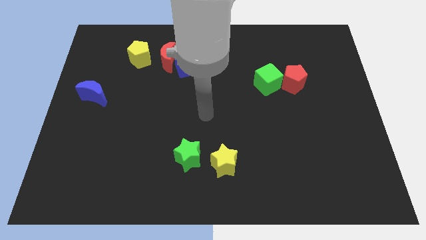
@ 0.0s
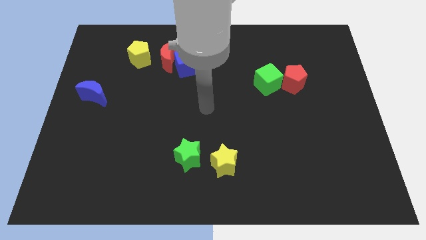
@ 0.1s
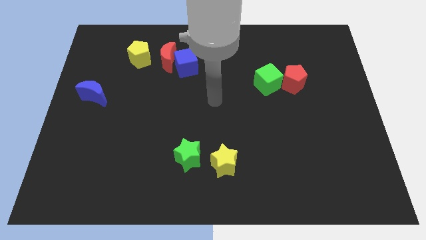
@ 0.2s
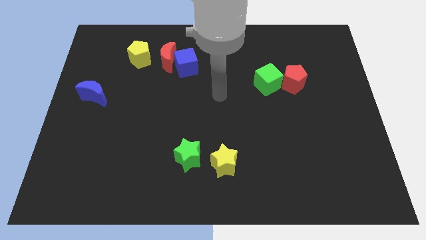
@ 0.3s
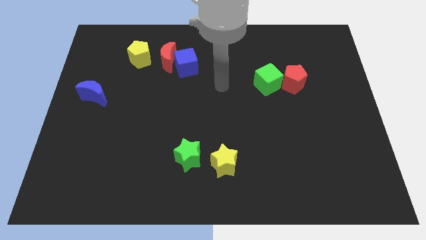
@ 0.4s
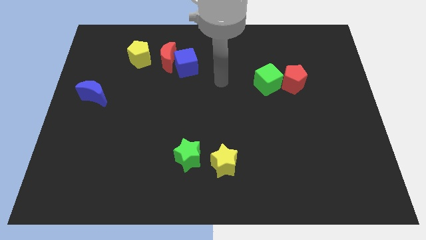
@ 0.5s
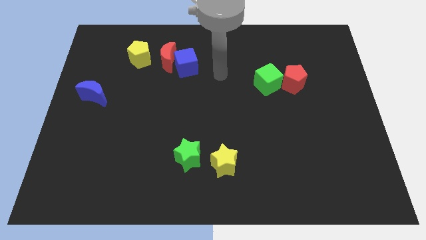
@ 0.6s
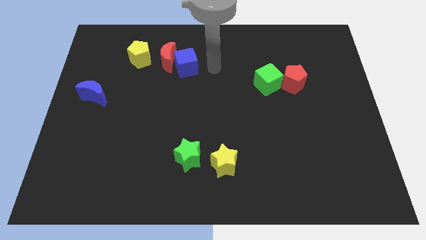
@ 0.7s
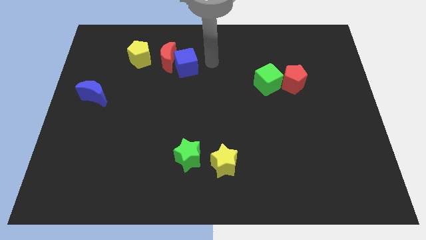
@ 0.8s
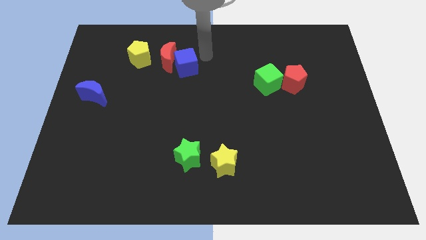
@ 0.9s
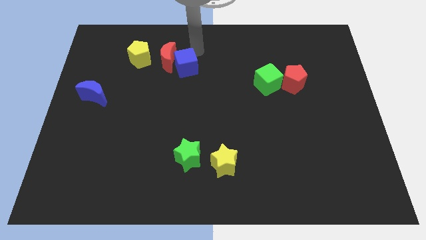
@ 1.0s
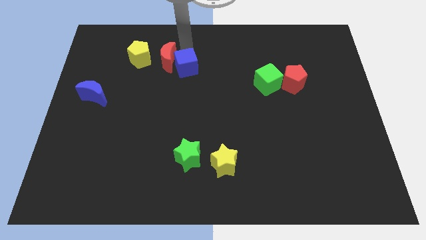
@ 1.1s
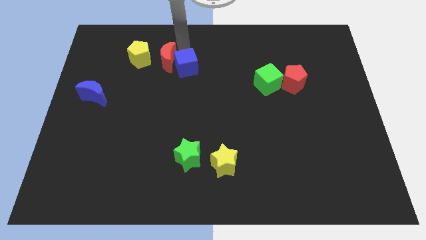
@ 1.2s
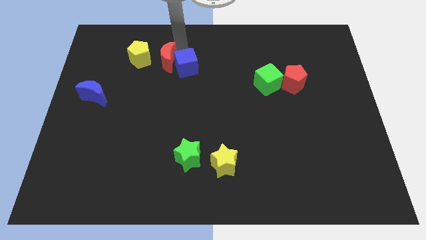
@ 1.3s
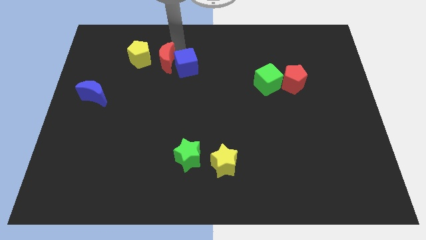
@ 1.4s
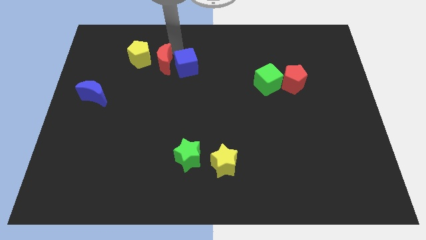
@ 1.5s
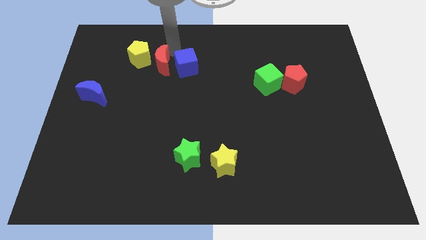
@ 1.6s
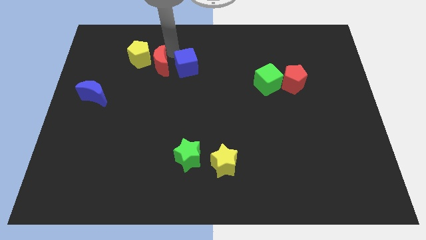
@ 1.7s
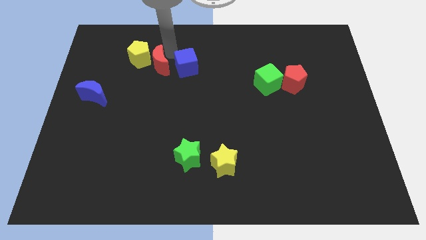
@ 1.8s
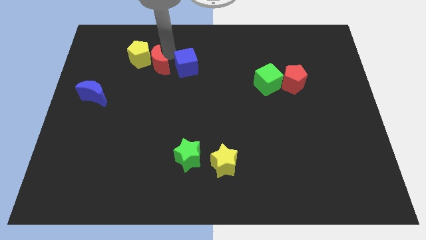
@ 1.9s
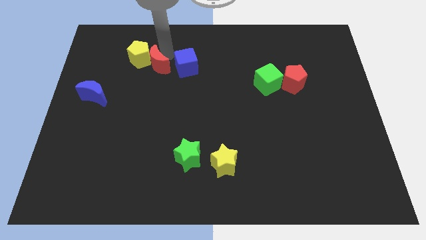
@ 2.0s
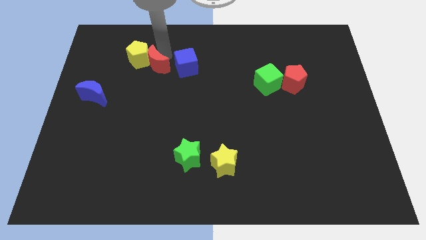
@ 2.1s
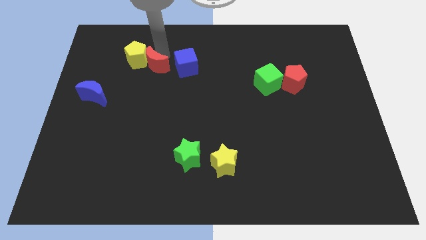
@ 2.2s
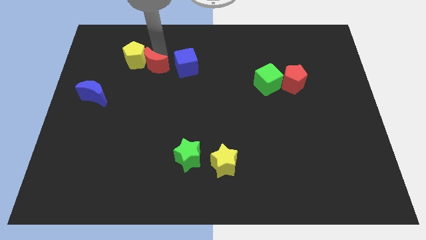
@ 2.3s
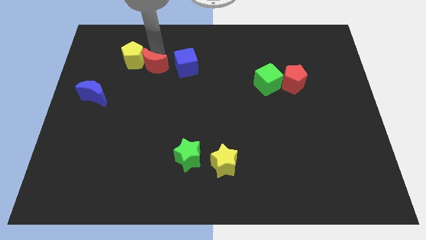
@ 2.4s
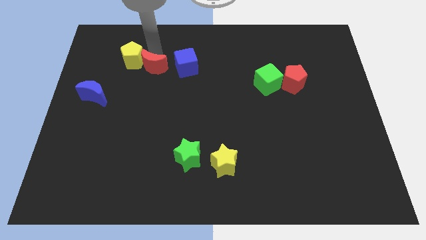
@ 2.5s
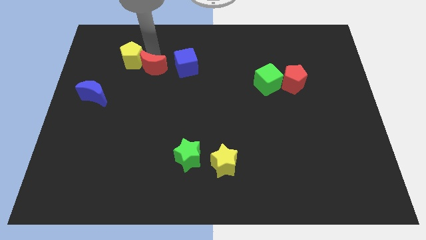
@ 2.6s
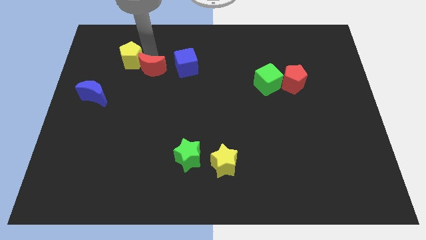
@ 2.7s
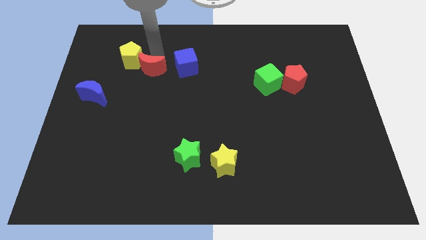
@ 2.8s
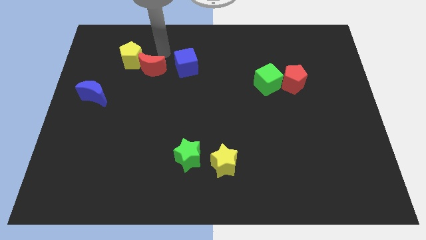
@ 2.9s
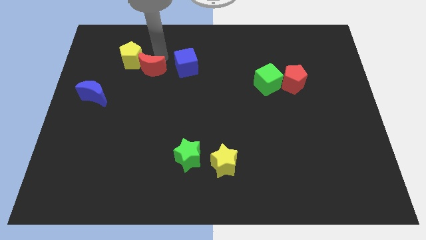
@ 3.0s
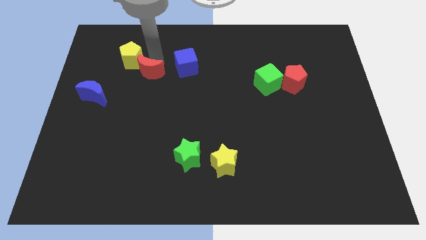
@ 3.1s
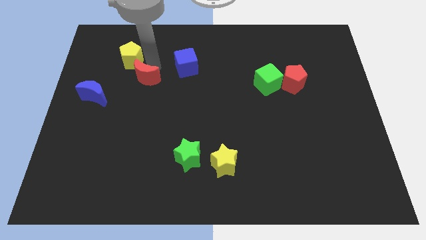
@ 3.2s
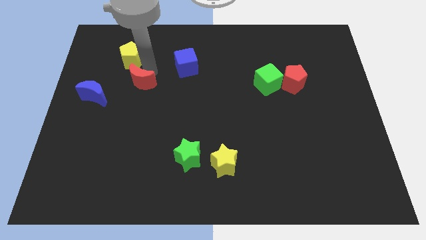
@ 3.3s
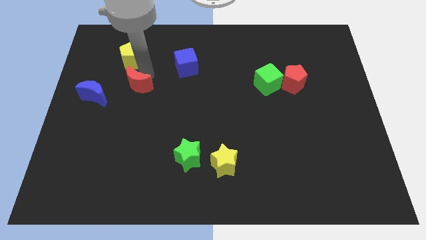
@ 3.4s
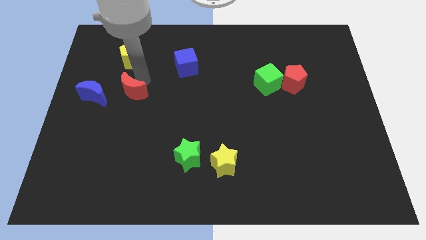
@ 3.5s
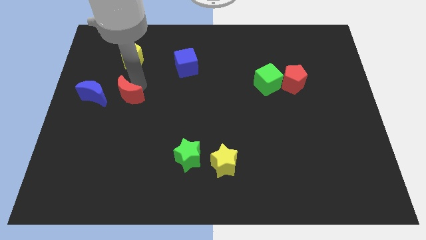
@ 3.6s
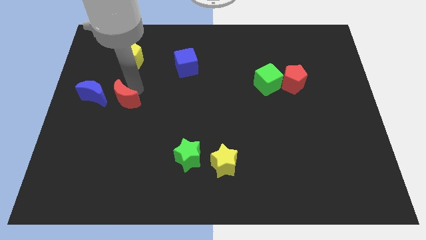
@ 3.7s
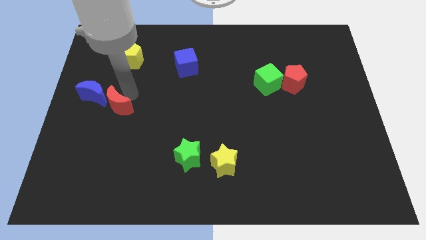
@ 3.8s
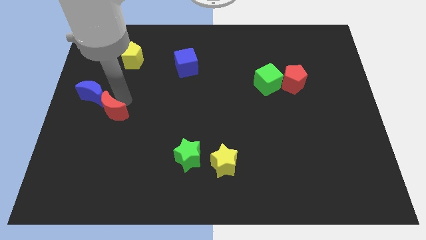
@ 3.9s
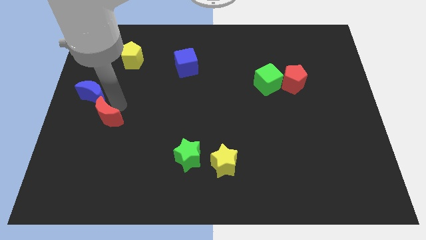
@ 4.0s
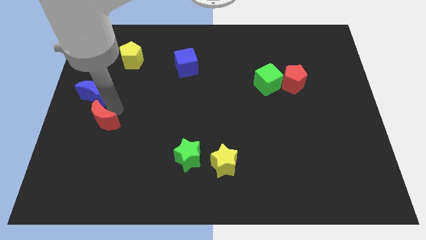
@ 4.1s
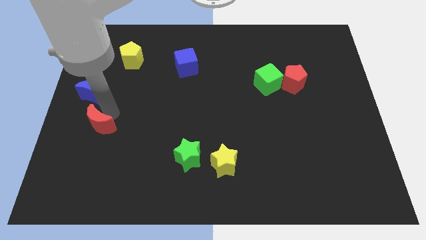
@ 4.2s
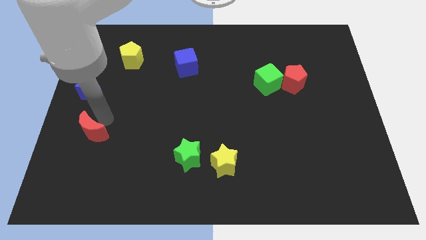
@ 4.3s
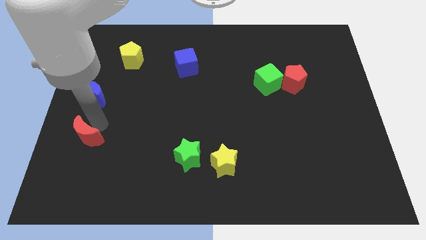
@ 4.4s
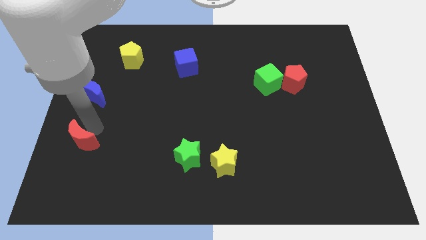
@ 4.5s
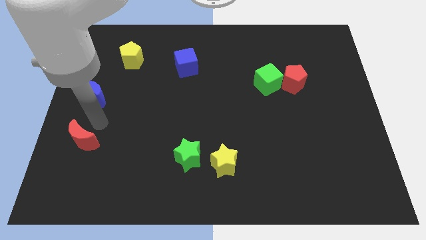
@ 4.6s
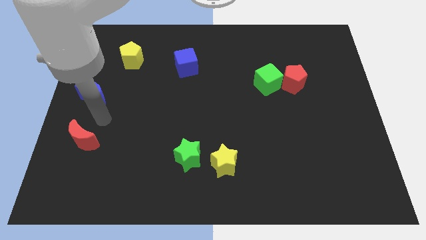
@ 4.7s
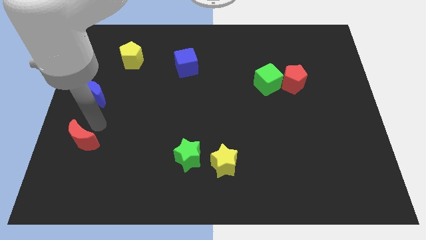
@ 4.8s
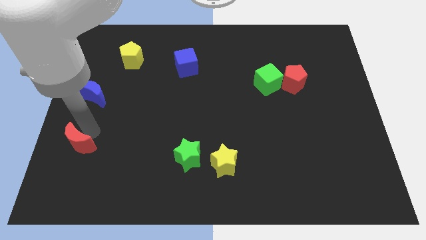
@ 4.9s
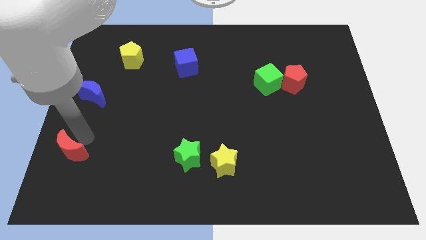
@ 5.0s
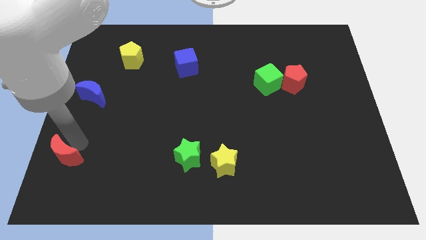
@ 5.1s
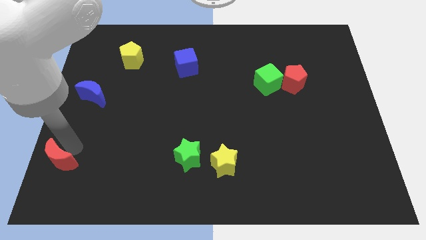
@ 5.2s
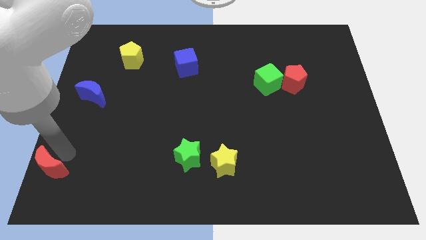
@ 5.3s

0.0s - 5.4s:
push the red moon to the bottom left

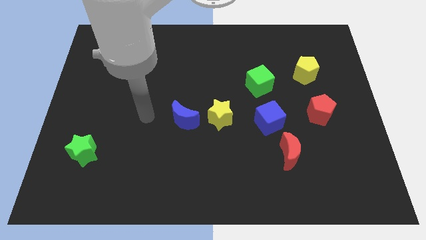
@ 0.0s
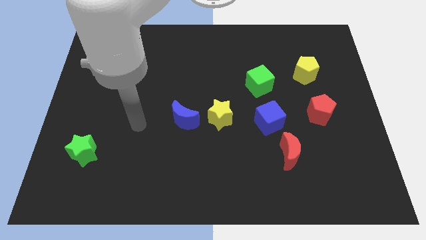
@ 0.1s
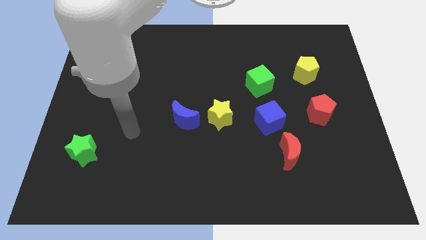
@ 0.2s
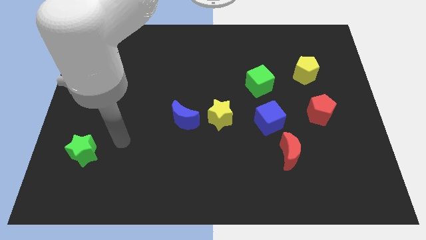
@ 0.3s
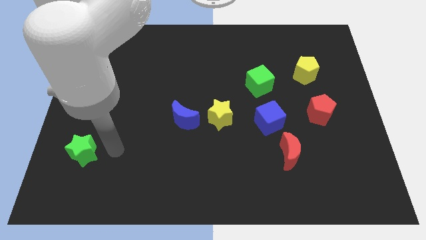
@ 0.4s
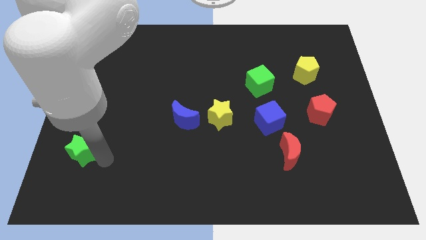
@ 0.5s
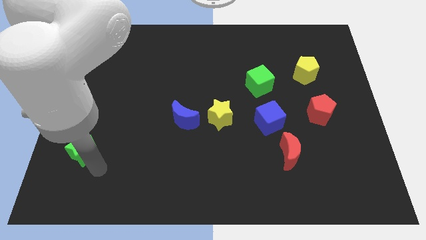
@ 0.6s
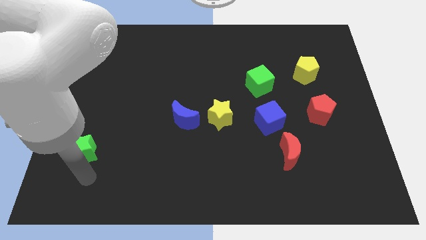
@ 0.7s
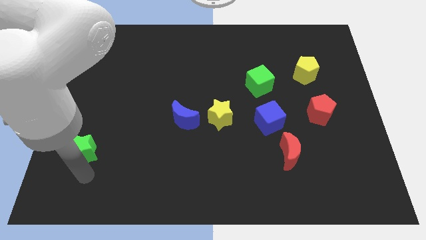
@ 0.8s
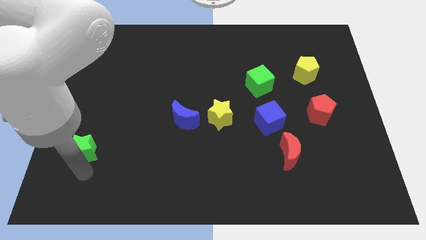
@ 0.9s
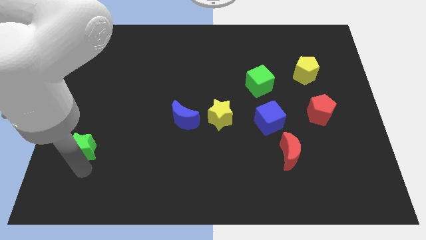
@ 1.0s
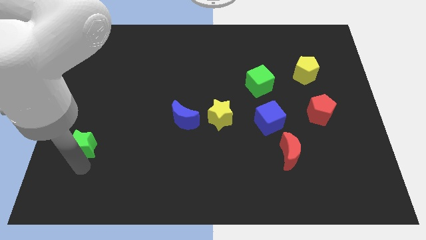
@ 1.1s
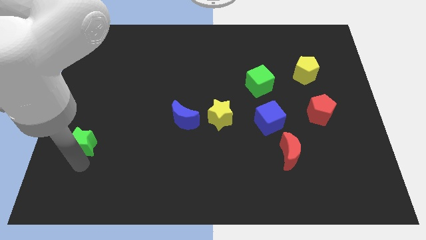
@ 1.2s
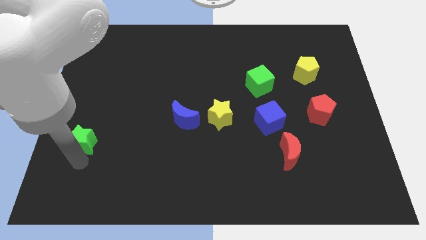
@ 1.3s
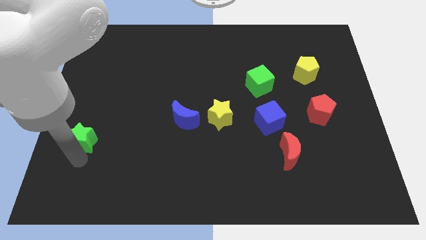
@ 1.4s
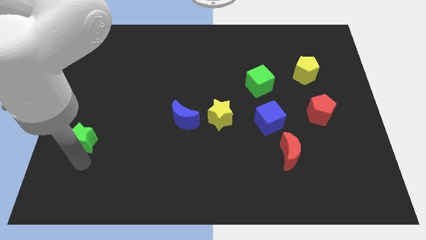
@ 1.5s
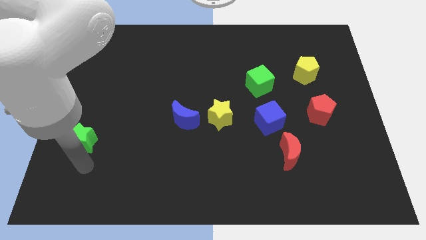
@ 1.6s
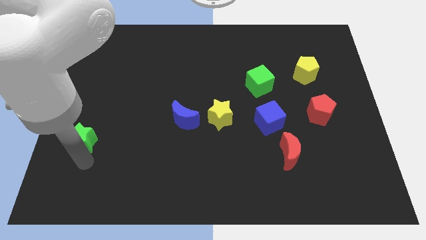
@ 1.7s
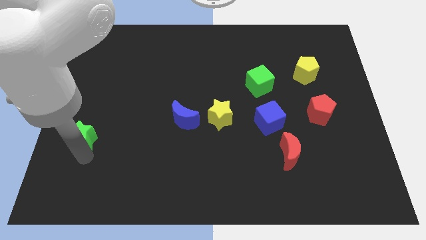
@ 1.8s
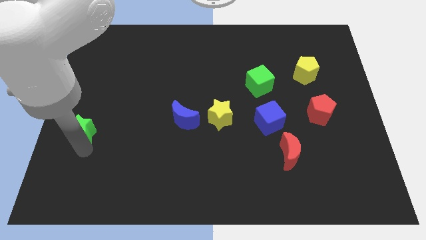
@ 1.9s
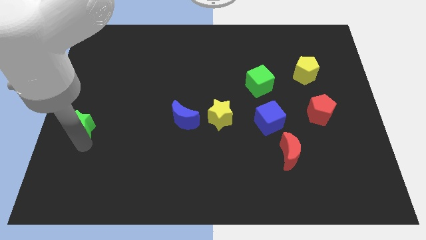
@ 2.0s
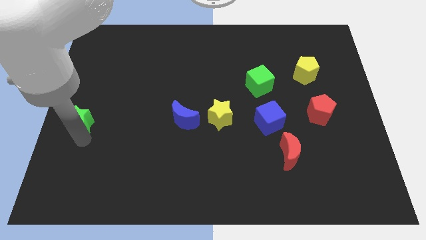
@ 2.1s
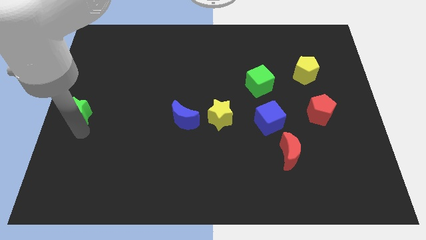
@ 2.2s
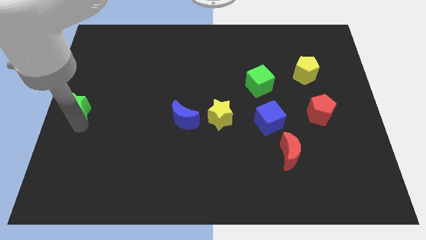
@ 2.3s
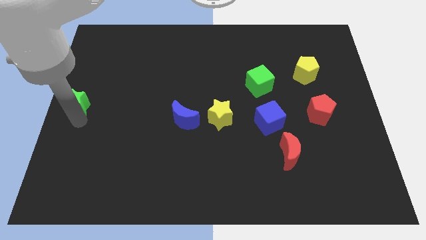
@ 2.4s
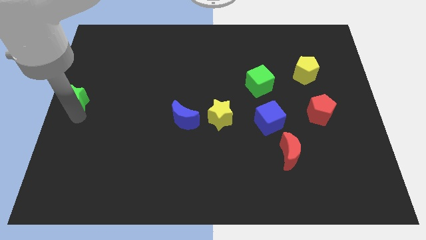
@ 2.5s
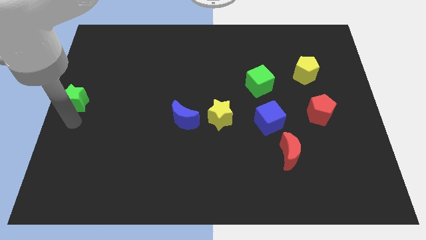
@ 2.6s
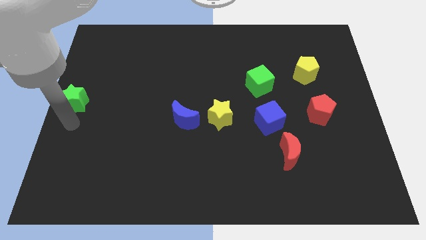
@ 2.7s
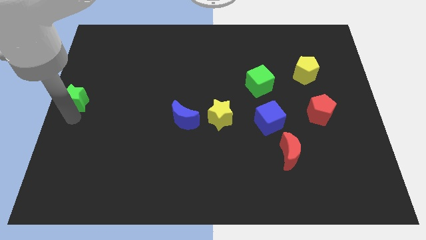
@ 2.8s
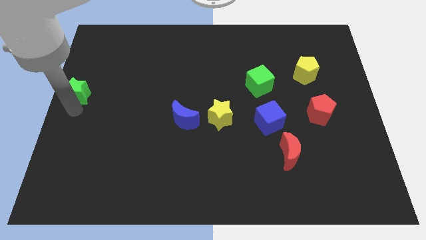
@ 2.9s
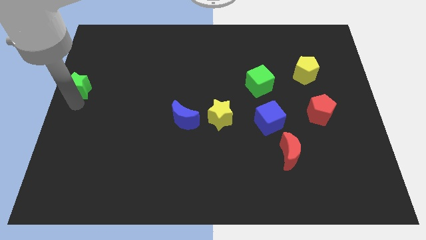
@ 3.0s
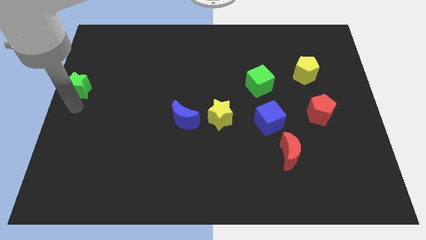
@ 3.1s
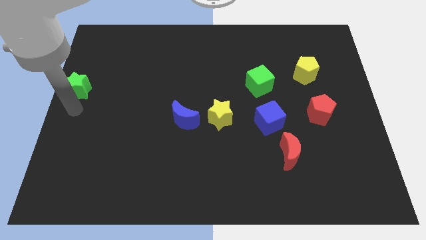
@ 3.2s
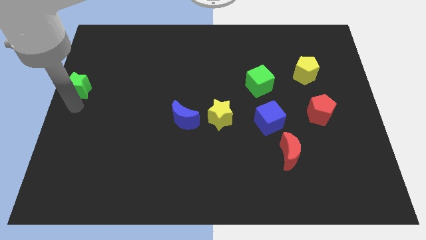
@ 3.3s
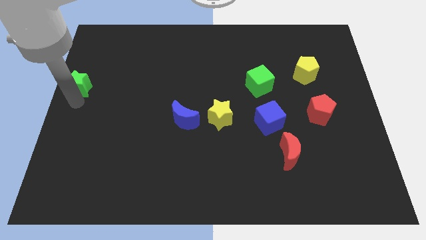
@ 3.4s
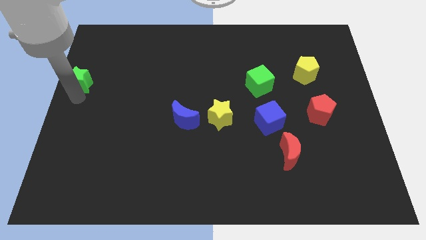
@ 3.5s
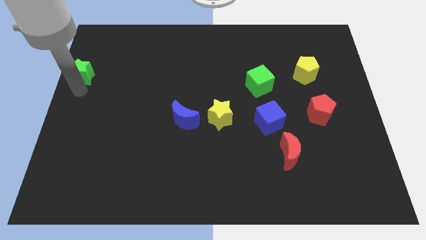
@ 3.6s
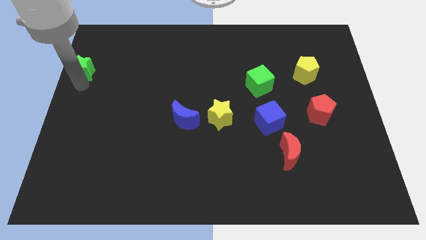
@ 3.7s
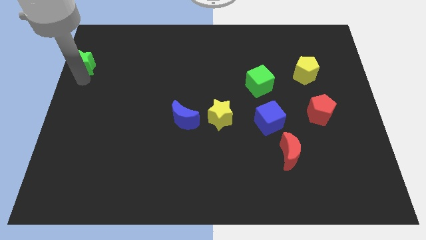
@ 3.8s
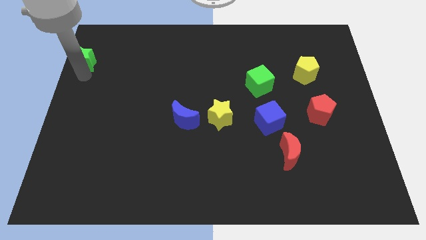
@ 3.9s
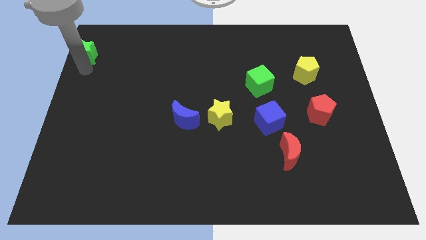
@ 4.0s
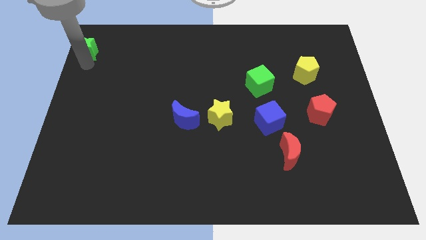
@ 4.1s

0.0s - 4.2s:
move the green star to the top left corner
